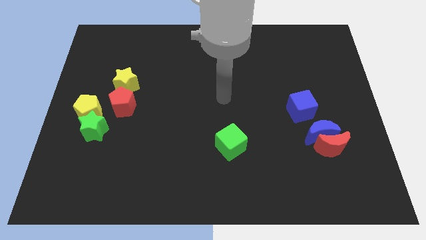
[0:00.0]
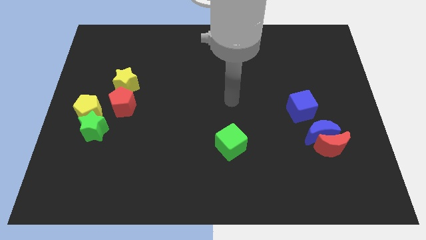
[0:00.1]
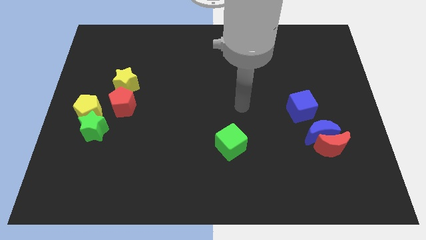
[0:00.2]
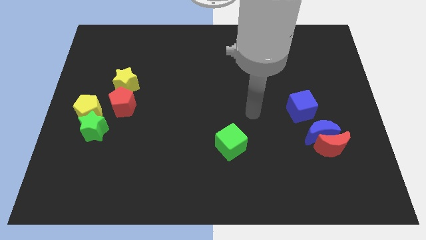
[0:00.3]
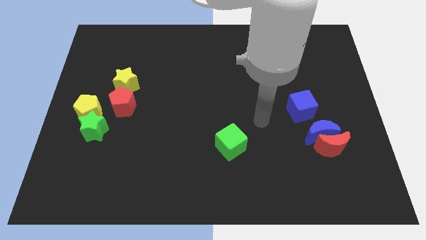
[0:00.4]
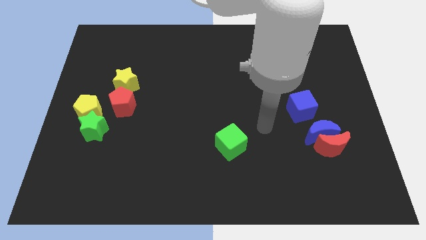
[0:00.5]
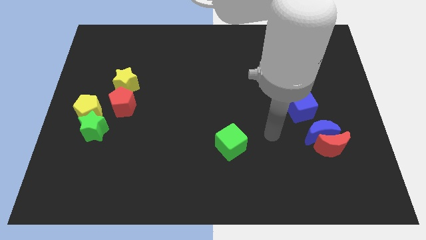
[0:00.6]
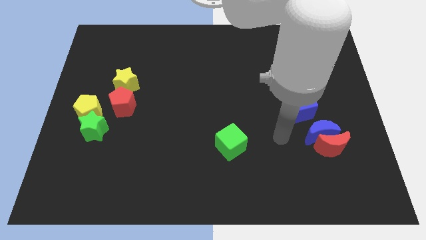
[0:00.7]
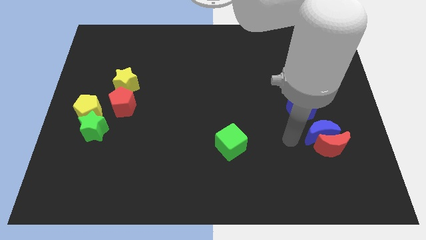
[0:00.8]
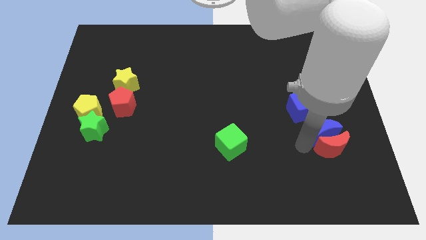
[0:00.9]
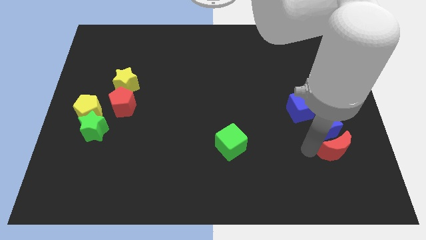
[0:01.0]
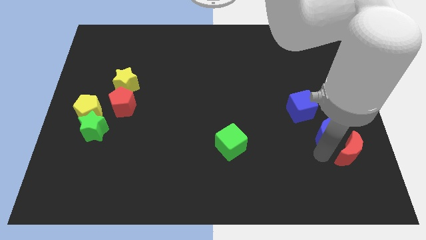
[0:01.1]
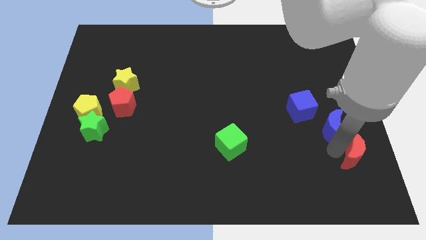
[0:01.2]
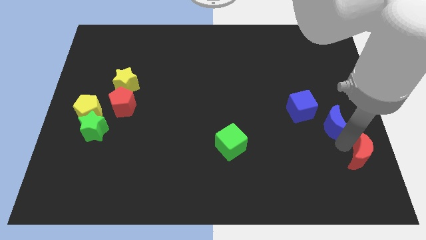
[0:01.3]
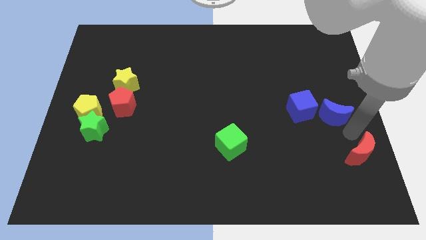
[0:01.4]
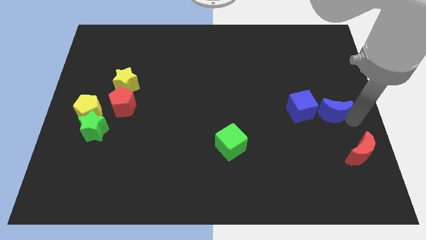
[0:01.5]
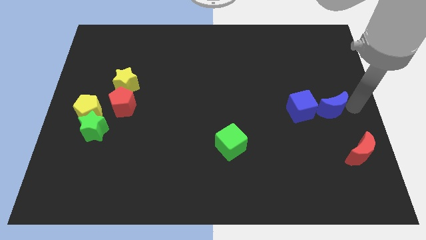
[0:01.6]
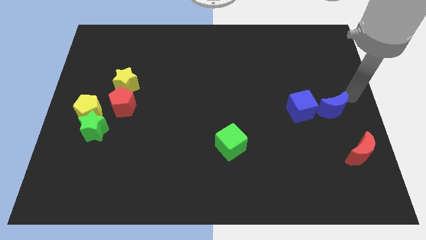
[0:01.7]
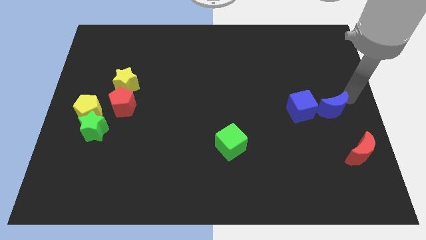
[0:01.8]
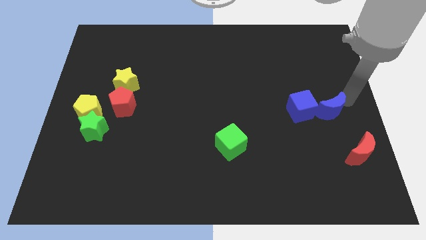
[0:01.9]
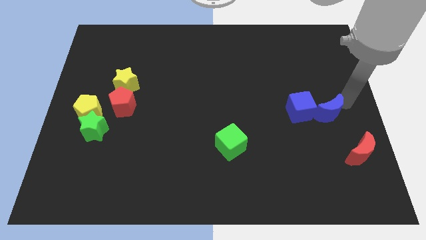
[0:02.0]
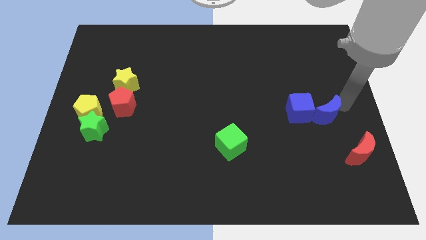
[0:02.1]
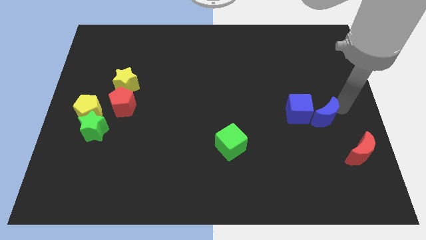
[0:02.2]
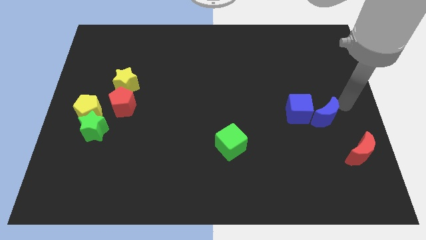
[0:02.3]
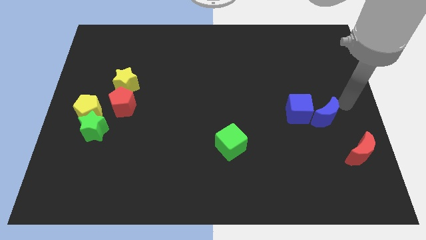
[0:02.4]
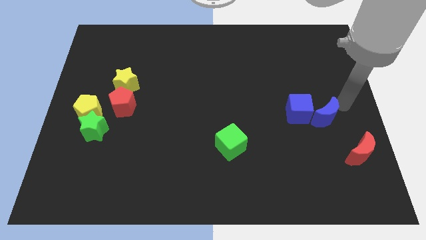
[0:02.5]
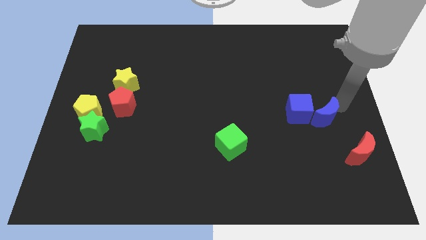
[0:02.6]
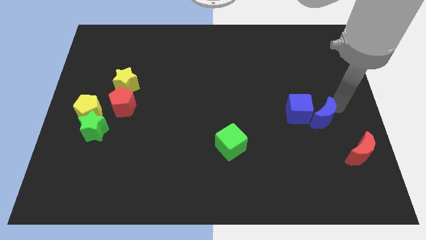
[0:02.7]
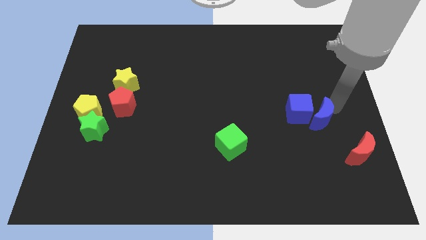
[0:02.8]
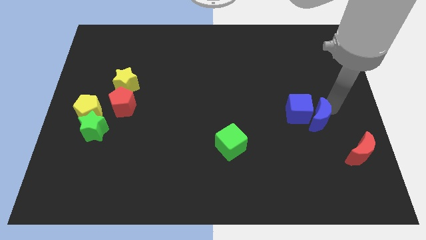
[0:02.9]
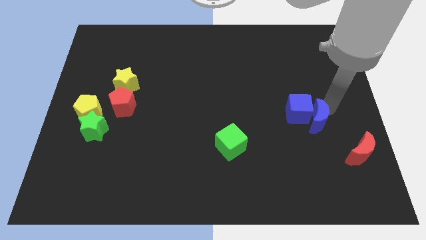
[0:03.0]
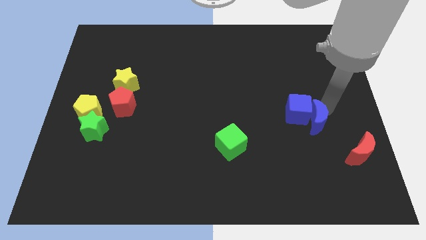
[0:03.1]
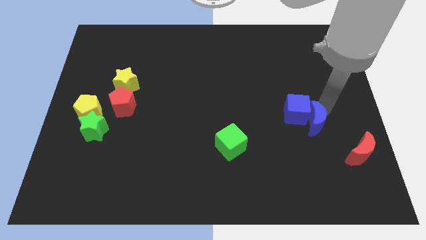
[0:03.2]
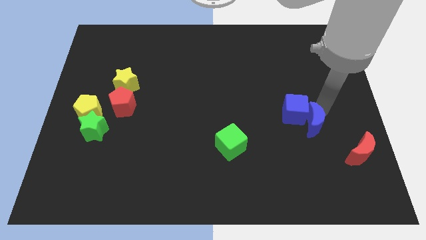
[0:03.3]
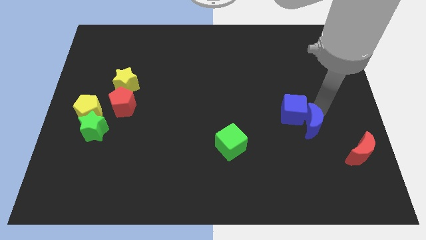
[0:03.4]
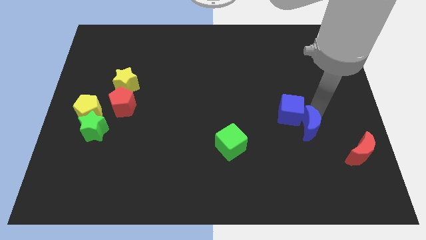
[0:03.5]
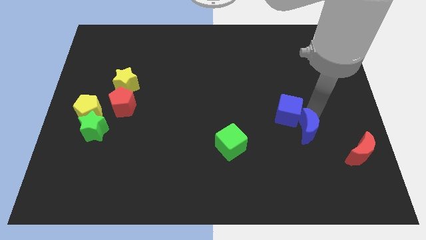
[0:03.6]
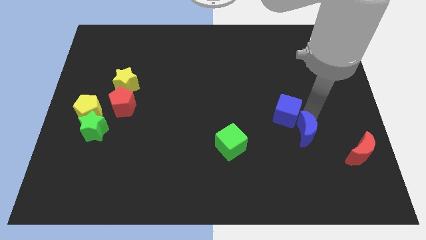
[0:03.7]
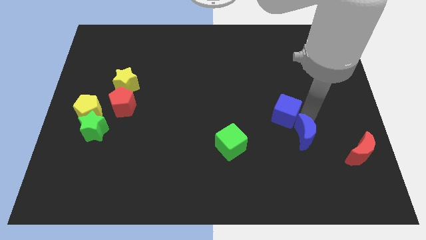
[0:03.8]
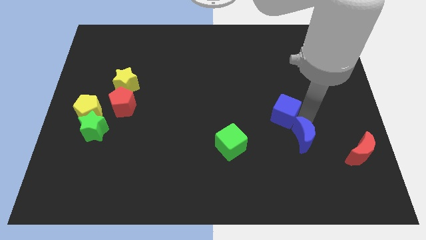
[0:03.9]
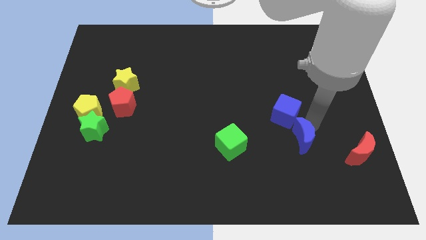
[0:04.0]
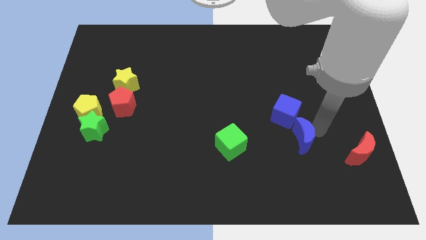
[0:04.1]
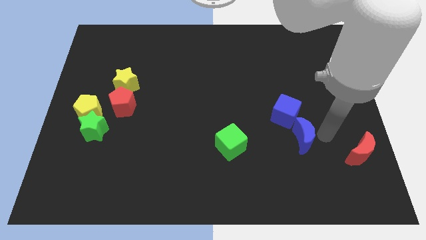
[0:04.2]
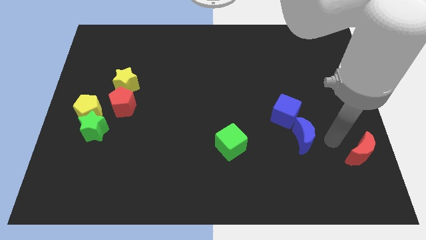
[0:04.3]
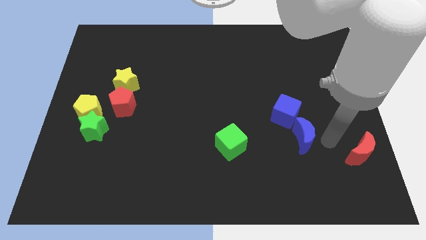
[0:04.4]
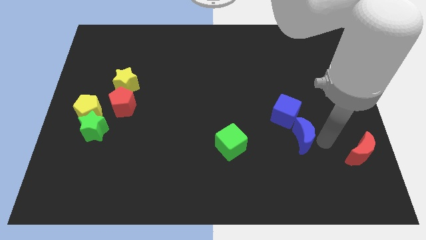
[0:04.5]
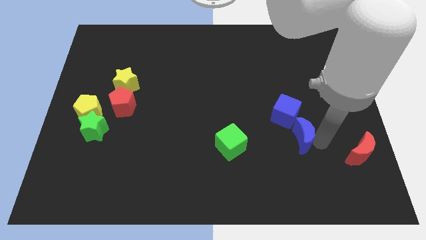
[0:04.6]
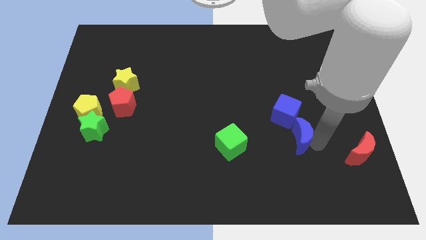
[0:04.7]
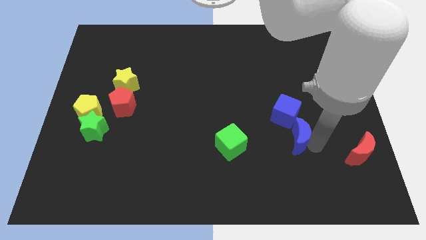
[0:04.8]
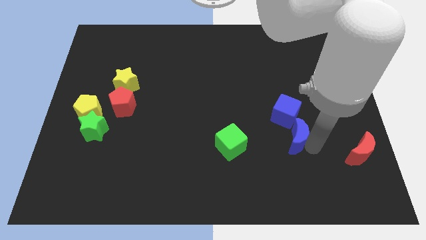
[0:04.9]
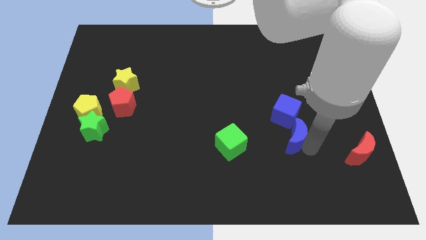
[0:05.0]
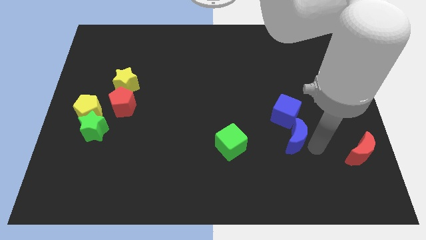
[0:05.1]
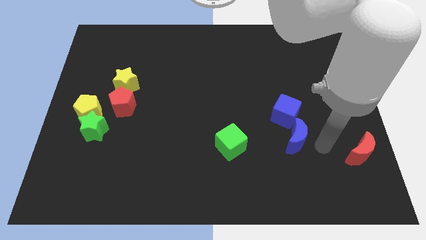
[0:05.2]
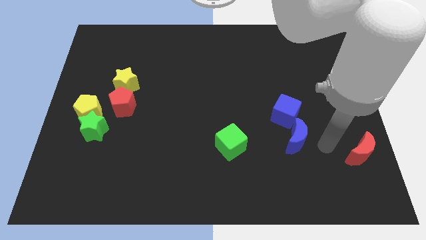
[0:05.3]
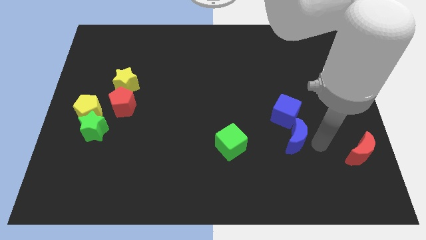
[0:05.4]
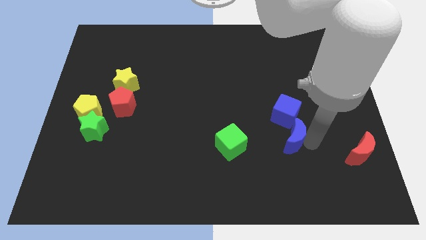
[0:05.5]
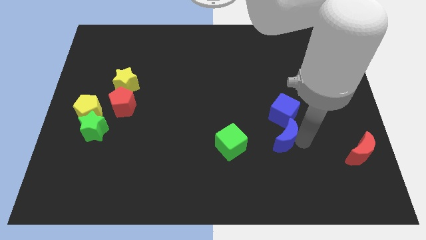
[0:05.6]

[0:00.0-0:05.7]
move the blue moon diagonally down and to the left of the blue cube
